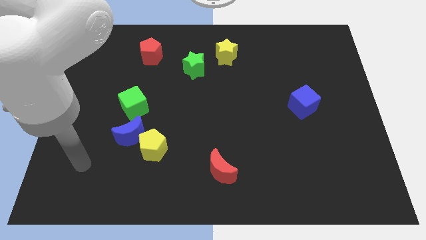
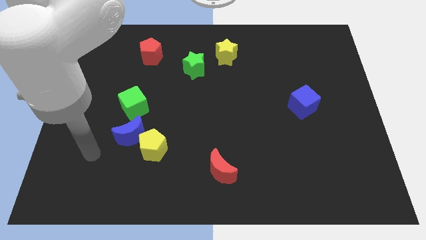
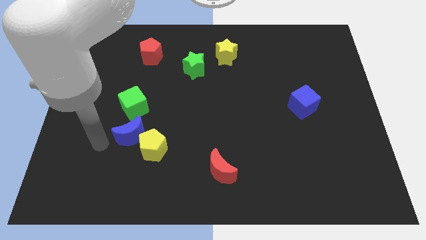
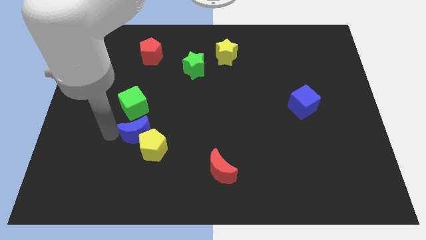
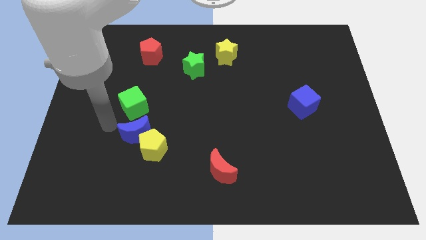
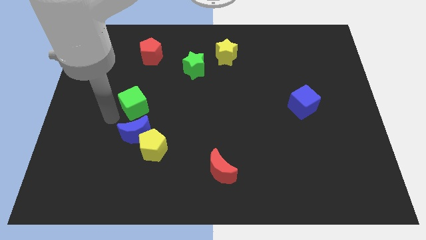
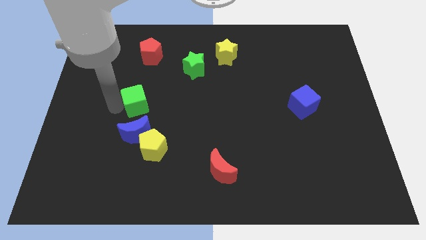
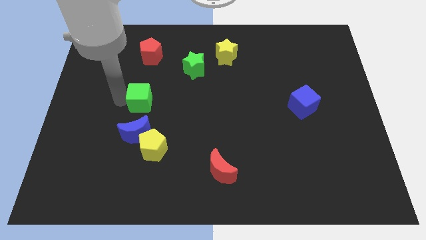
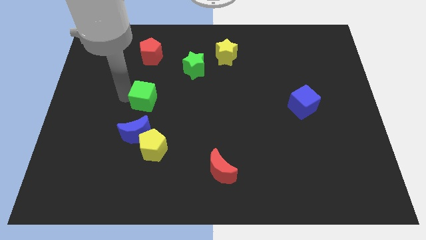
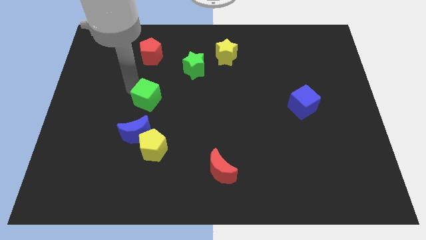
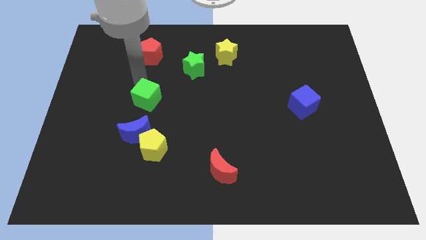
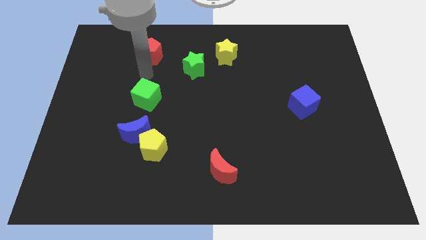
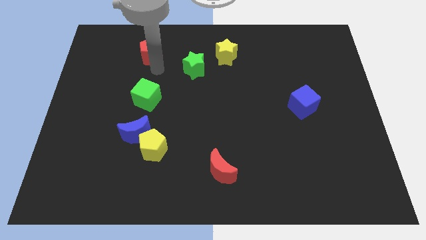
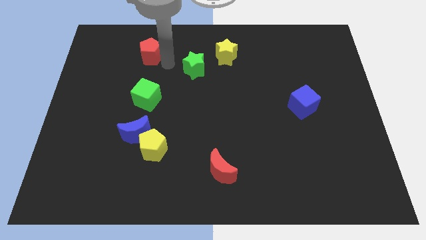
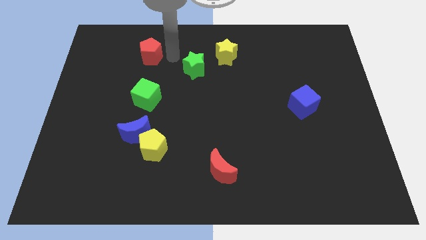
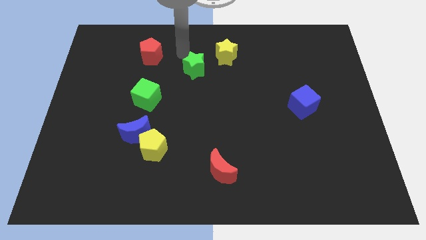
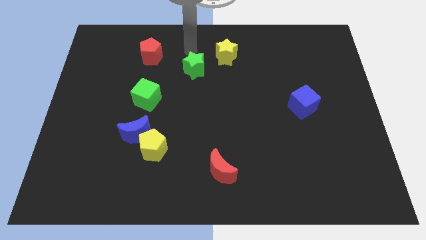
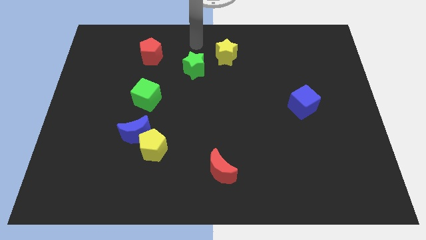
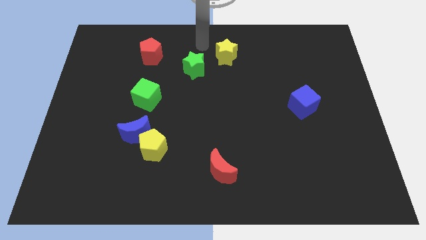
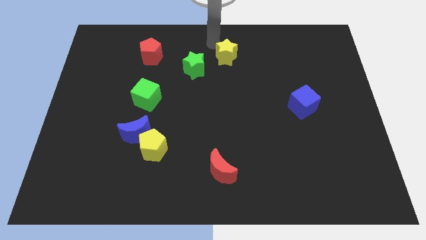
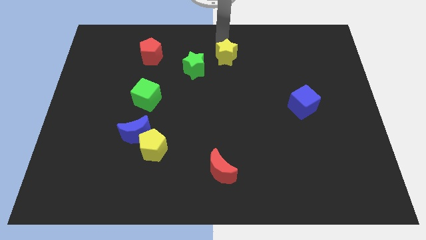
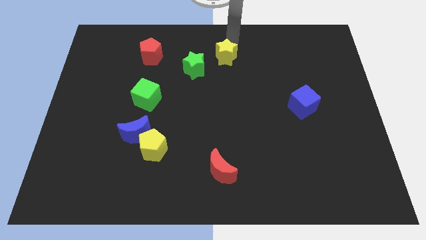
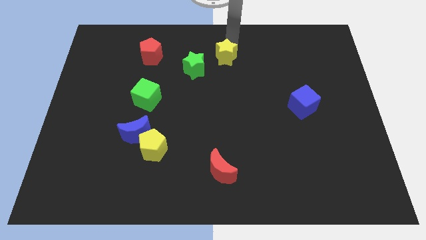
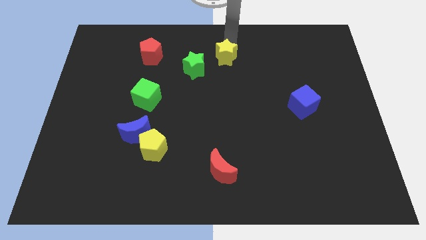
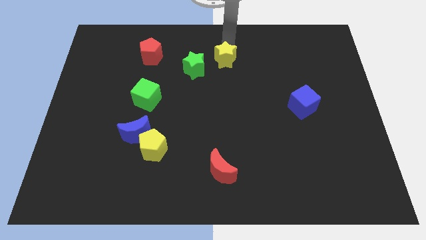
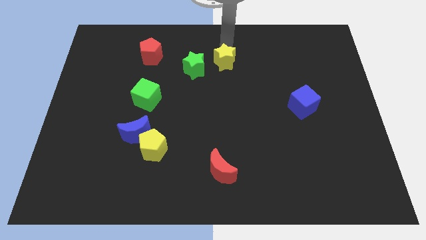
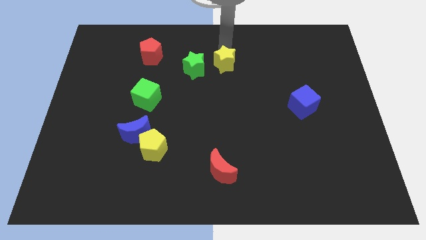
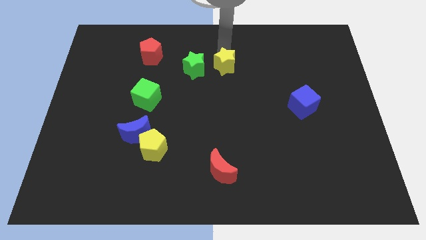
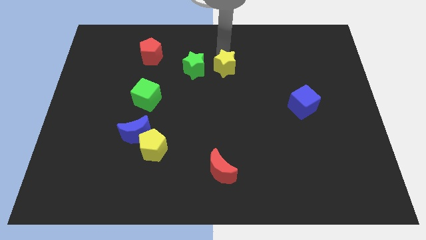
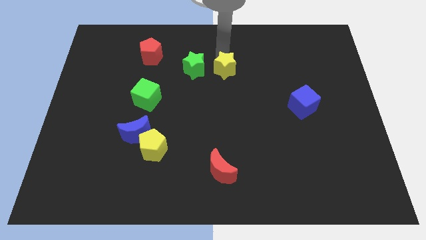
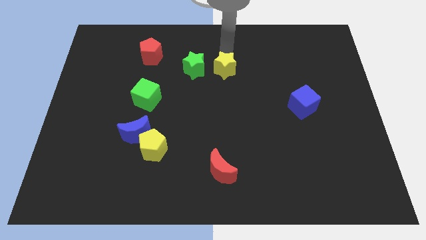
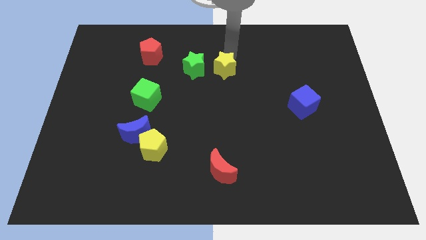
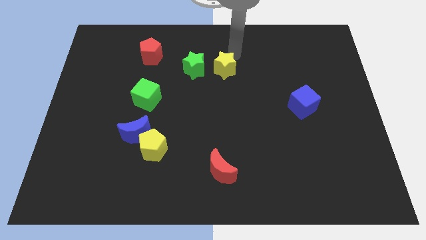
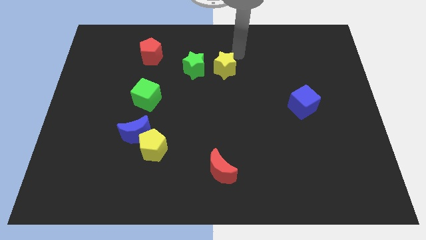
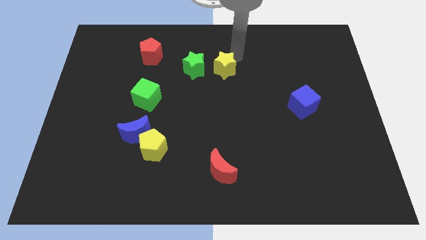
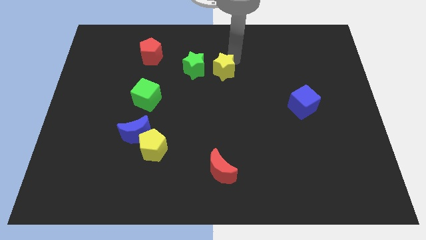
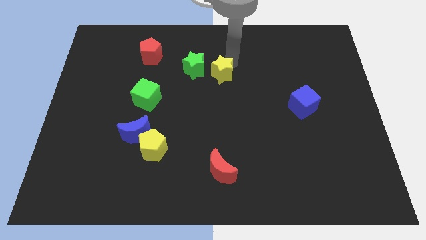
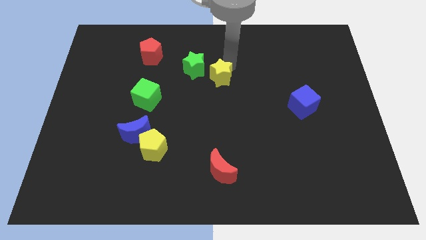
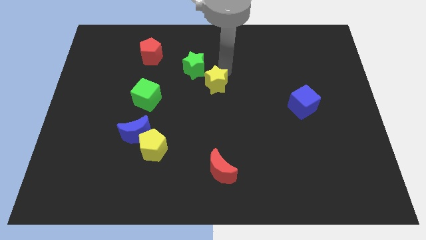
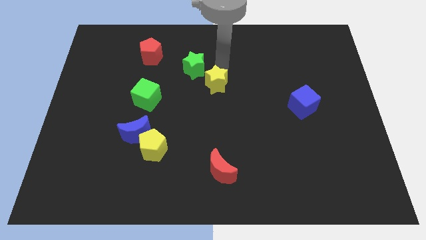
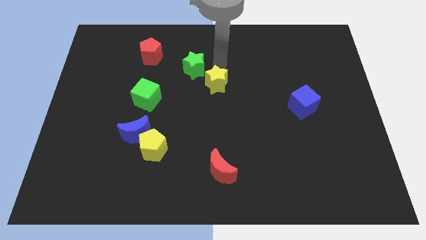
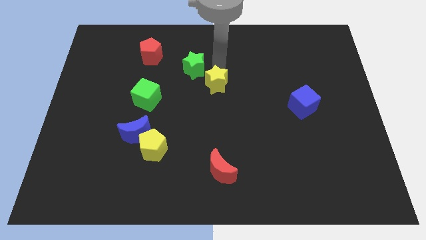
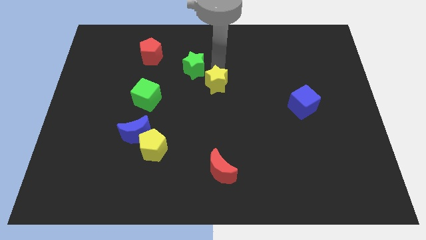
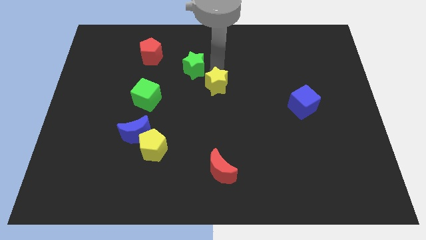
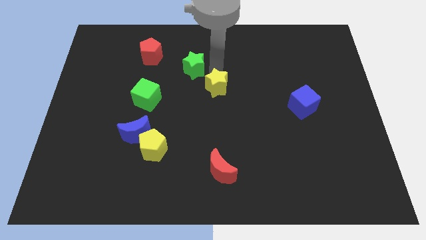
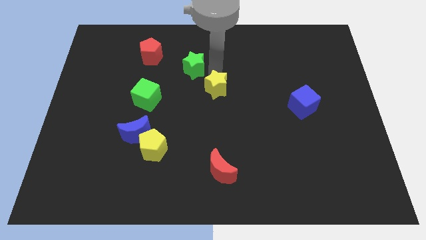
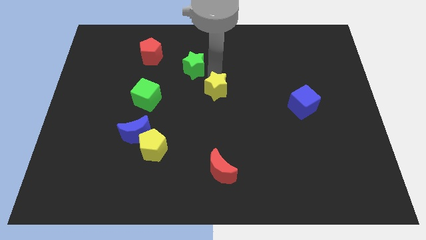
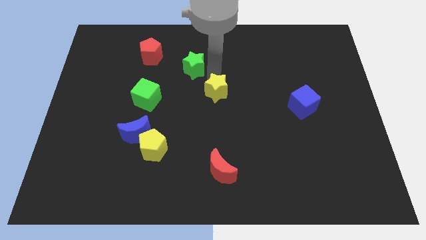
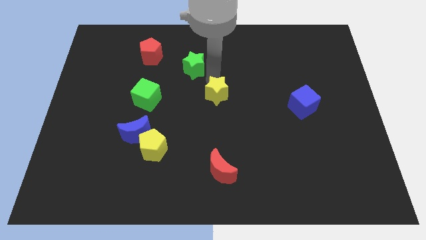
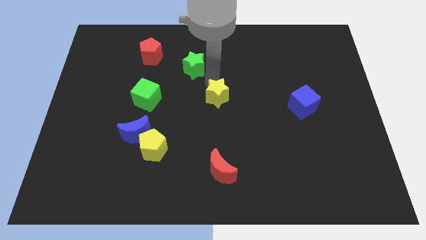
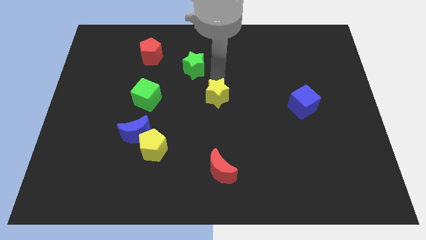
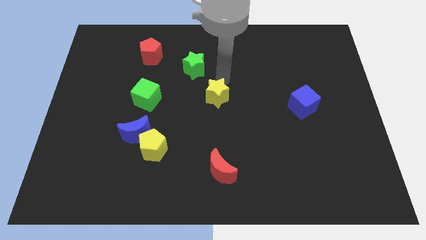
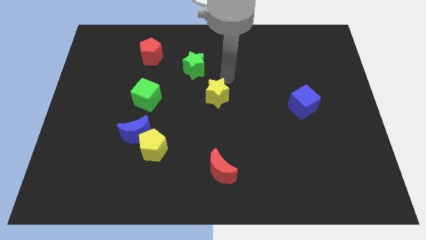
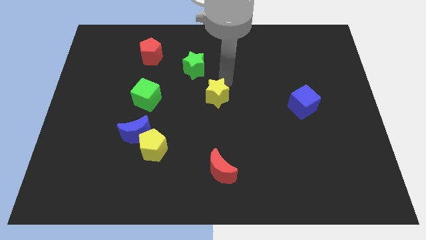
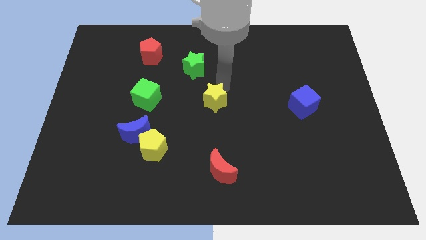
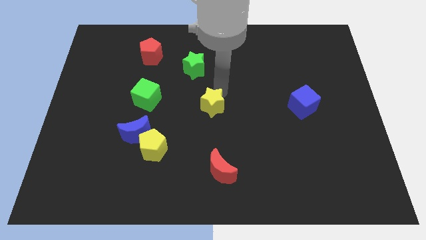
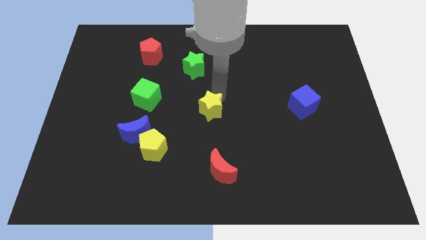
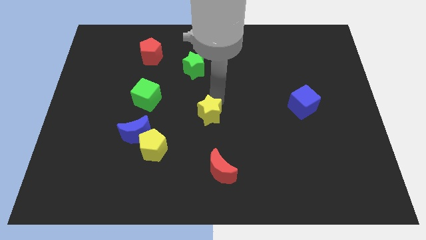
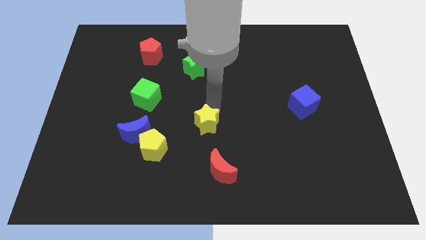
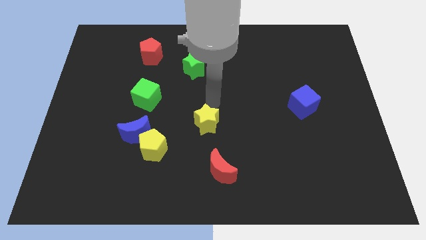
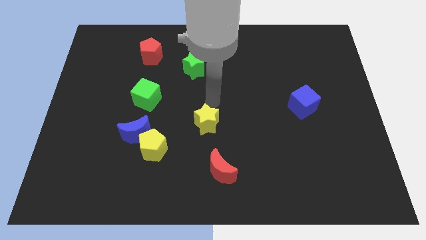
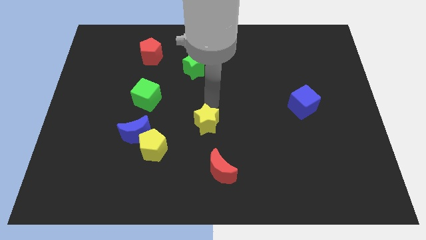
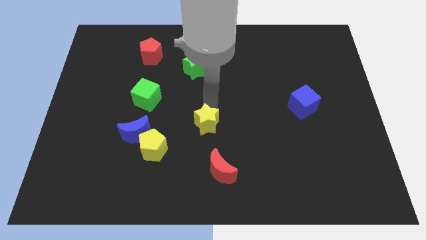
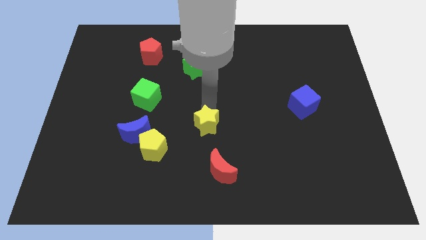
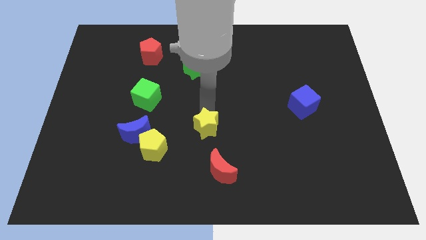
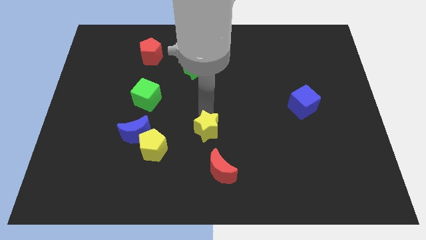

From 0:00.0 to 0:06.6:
move the yellow star to the right side of the yellow pentagon

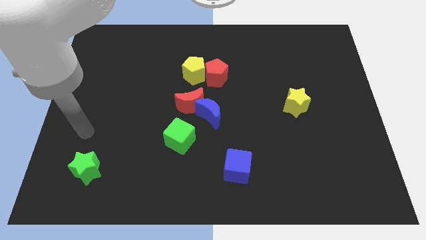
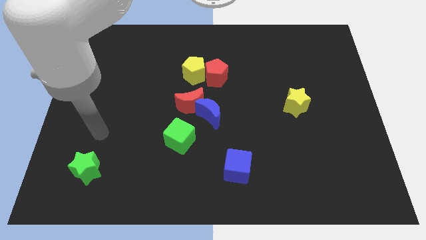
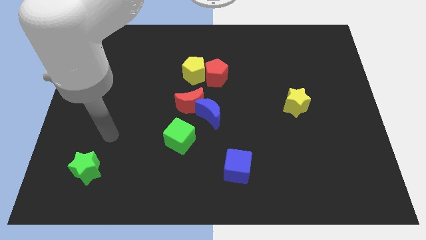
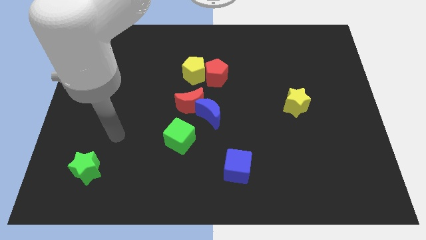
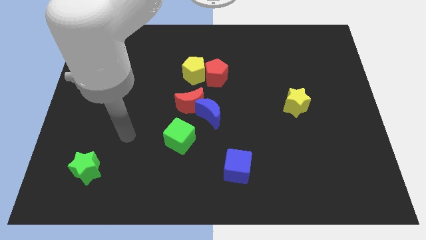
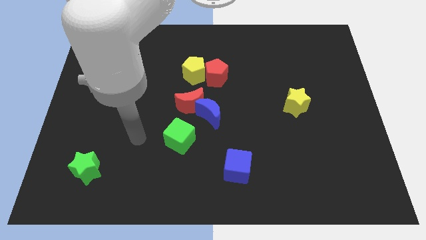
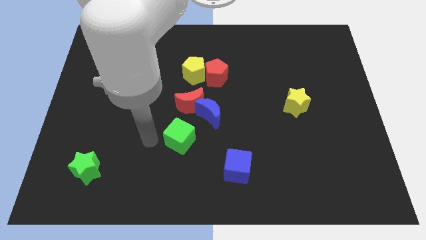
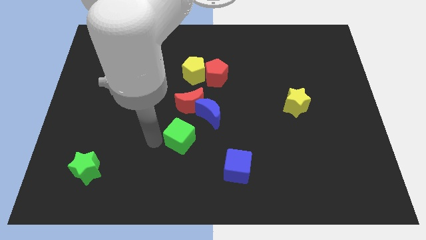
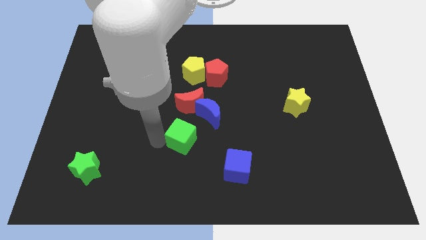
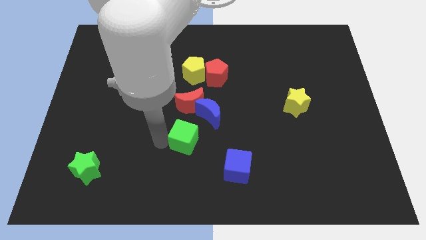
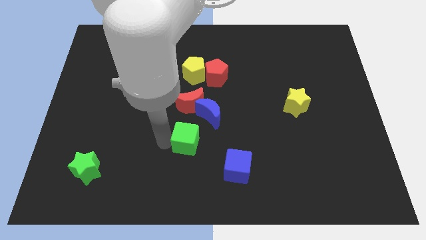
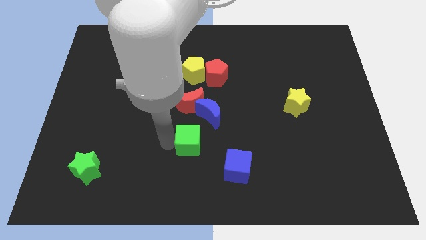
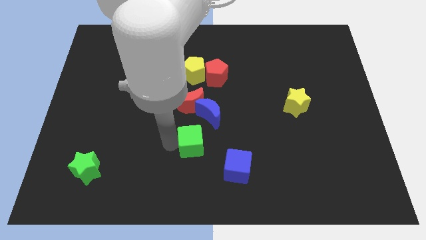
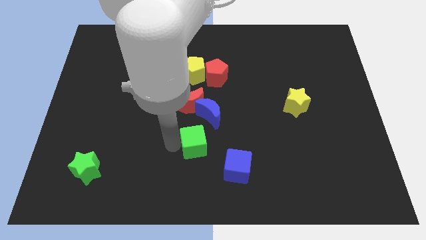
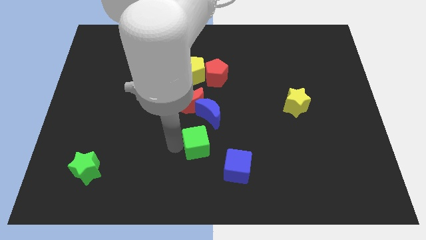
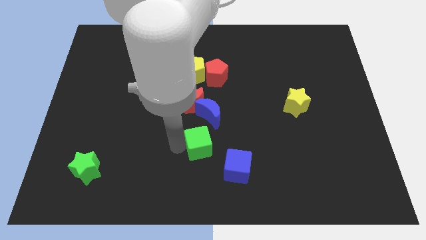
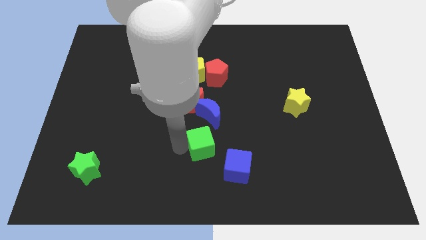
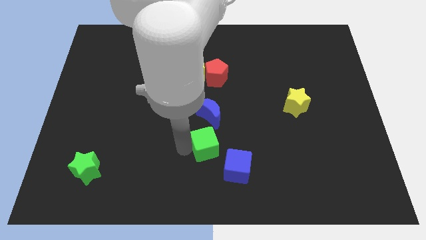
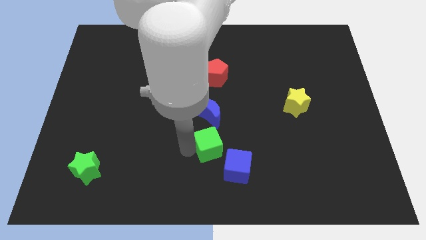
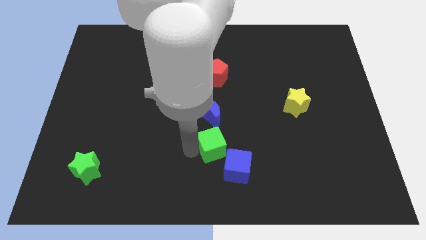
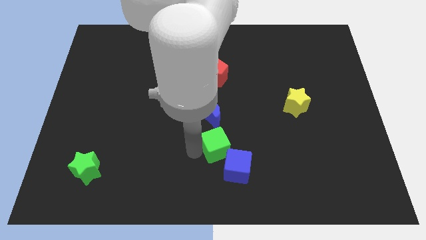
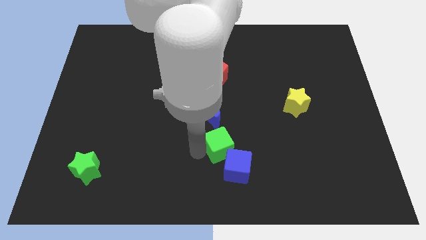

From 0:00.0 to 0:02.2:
move the green cube diagonally down and to the right of the blue moon
